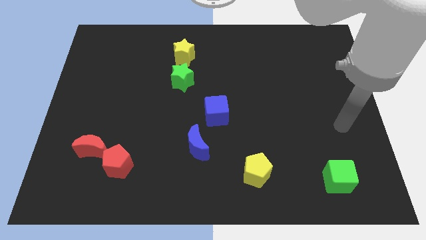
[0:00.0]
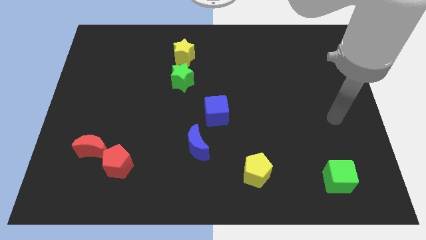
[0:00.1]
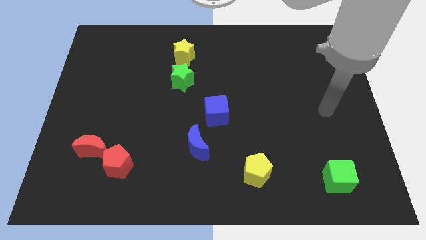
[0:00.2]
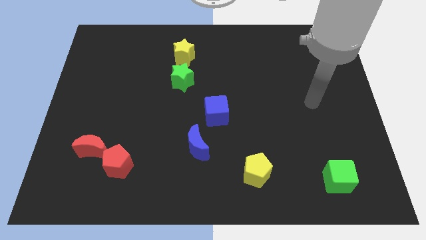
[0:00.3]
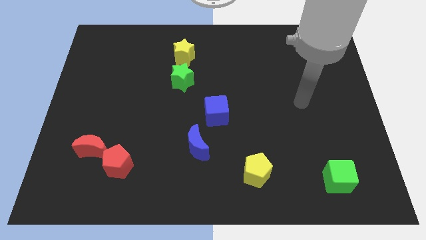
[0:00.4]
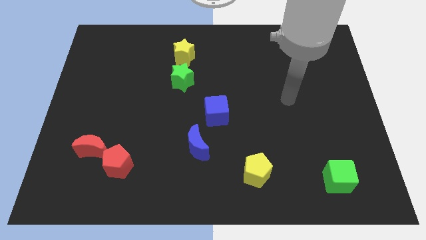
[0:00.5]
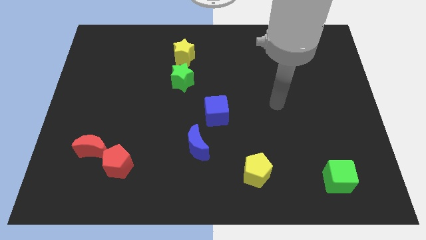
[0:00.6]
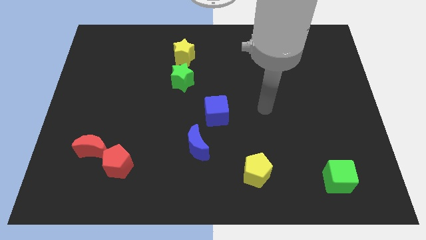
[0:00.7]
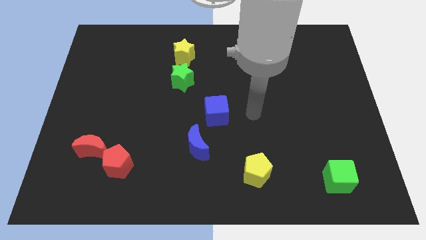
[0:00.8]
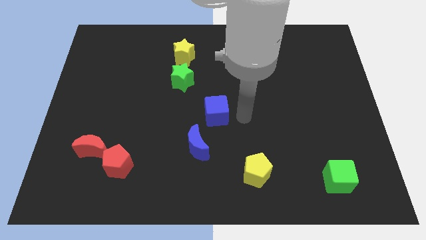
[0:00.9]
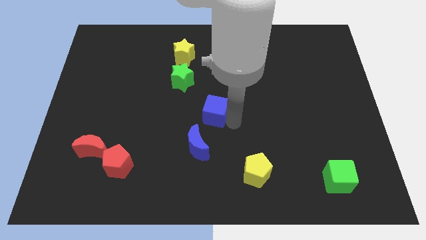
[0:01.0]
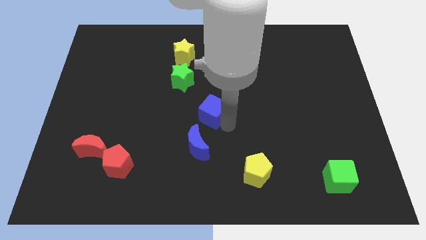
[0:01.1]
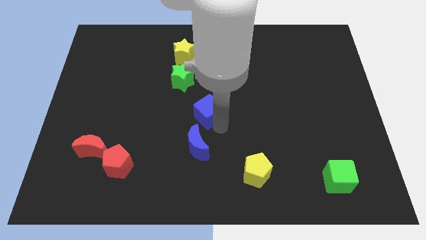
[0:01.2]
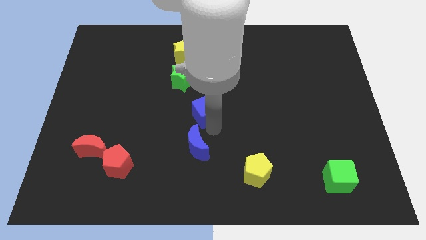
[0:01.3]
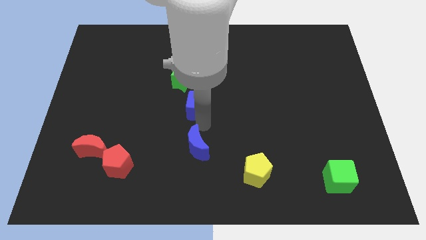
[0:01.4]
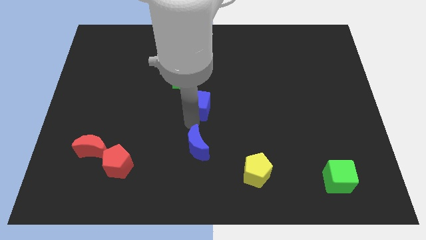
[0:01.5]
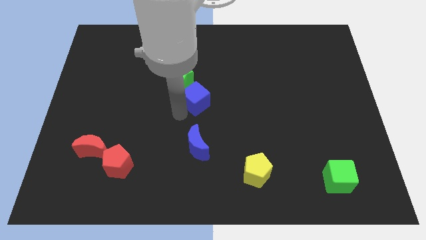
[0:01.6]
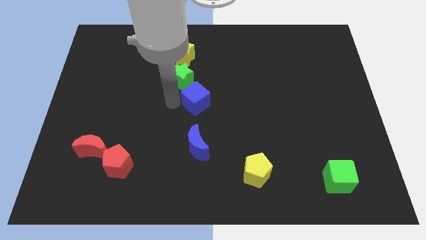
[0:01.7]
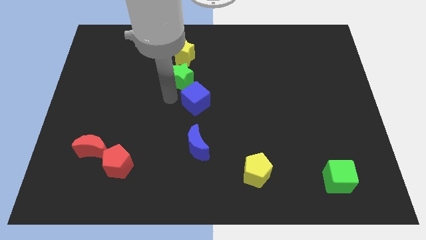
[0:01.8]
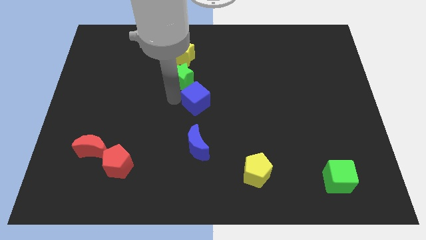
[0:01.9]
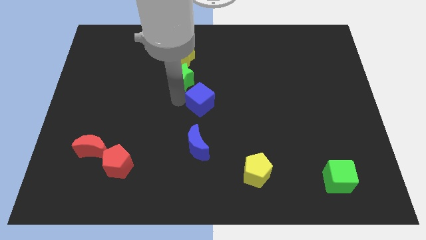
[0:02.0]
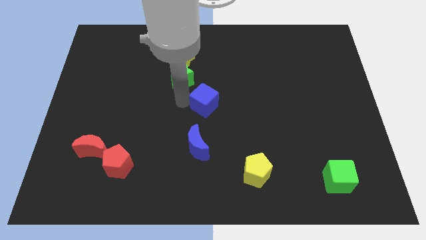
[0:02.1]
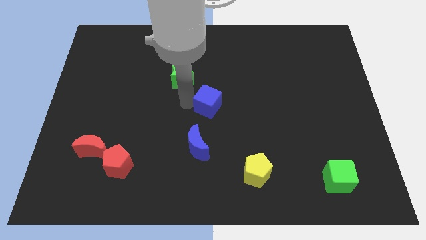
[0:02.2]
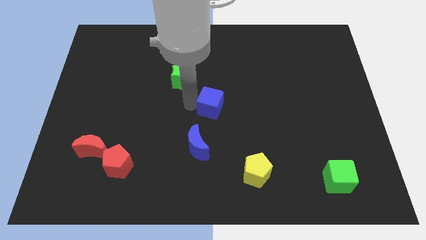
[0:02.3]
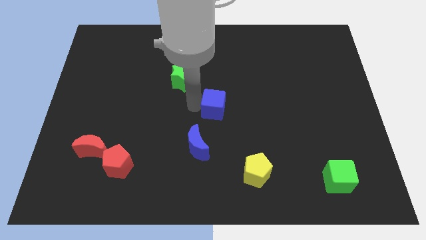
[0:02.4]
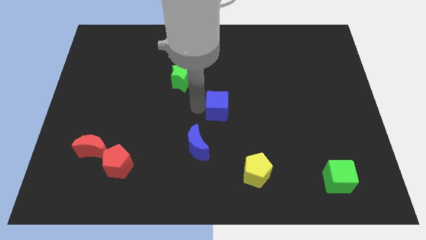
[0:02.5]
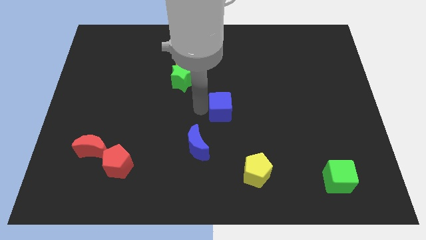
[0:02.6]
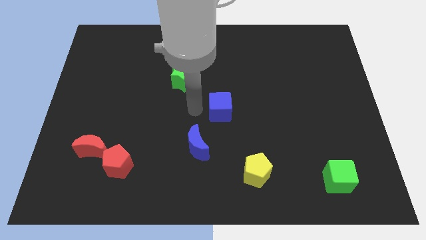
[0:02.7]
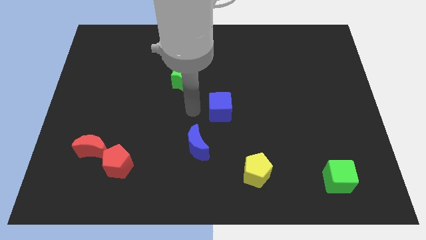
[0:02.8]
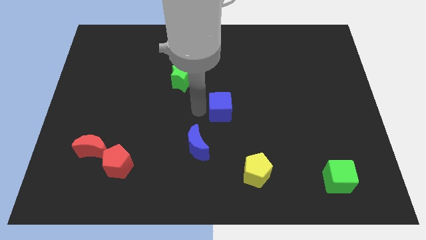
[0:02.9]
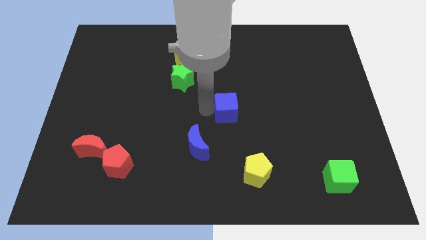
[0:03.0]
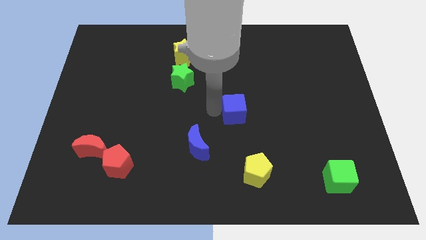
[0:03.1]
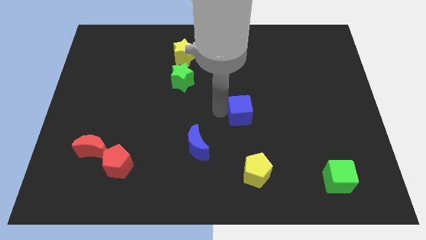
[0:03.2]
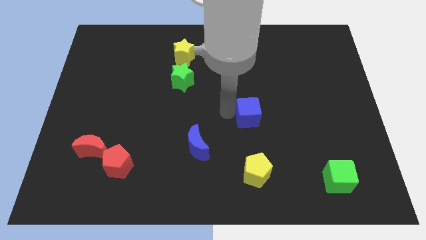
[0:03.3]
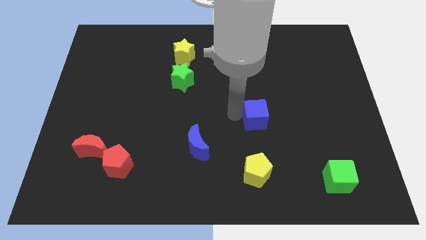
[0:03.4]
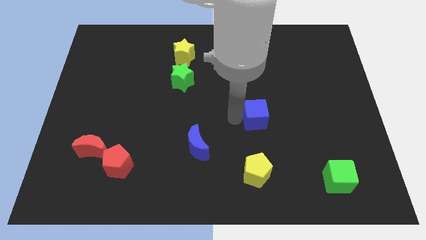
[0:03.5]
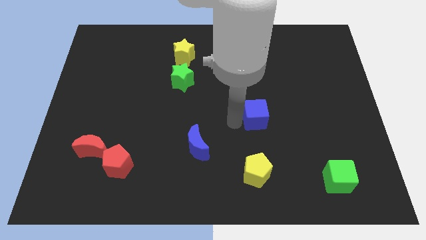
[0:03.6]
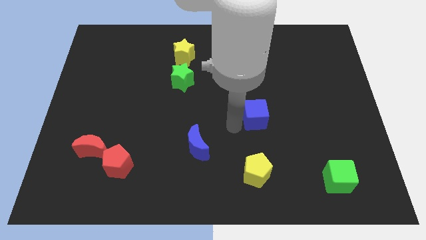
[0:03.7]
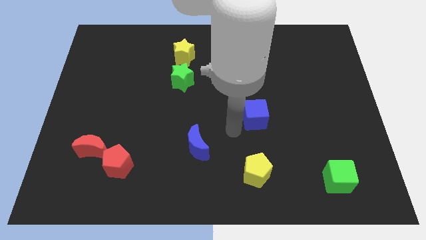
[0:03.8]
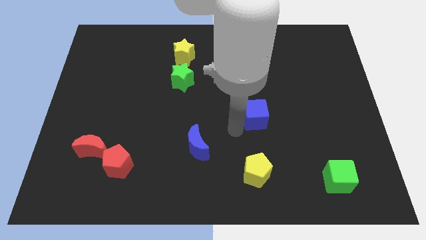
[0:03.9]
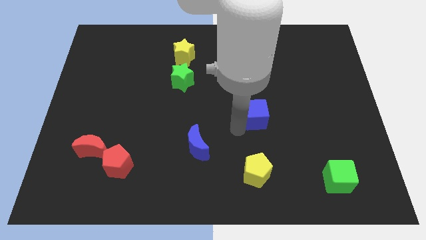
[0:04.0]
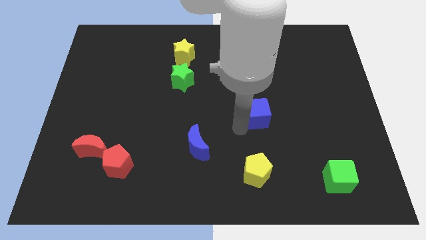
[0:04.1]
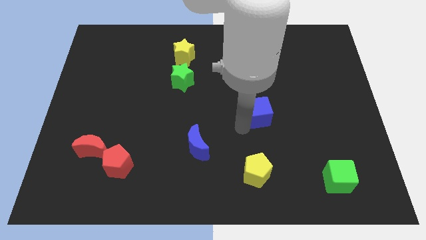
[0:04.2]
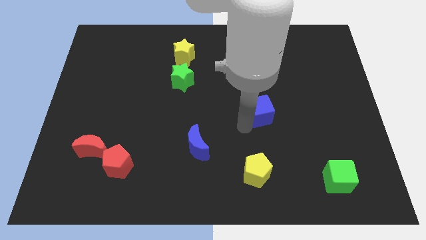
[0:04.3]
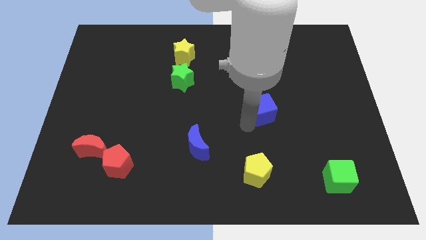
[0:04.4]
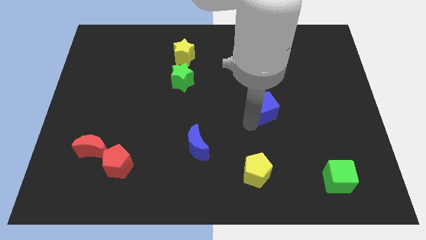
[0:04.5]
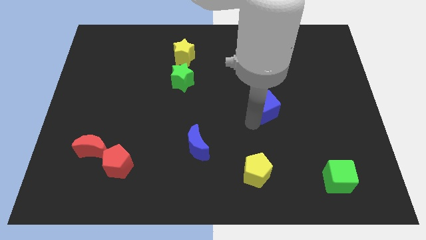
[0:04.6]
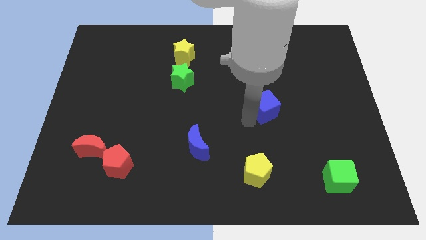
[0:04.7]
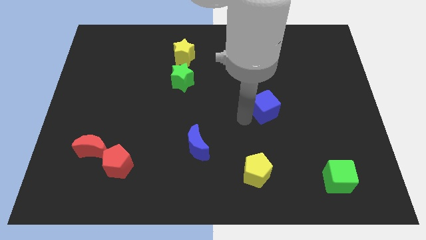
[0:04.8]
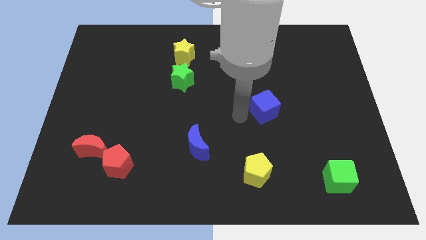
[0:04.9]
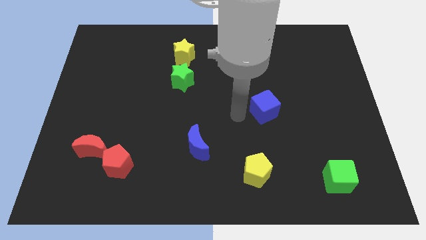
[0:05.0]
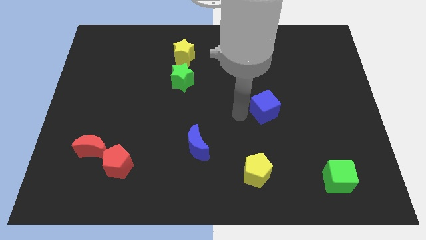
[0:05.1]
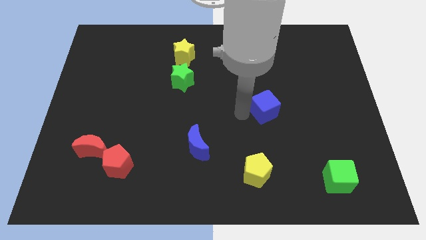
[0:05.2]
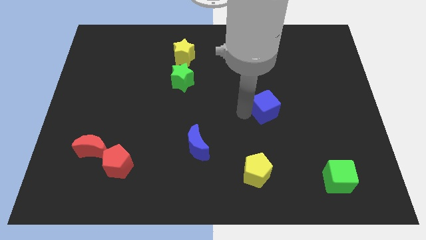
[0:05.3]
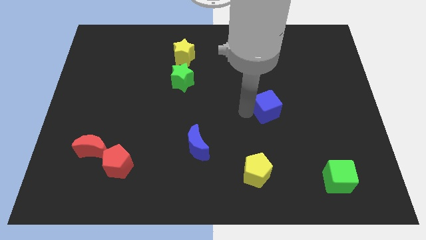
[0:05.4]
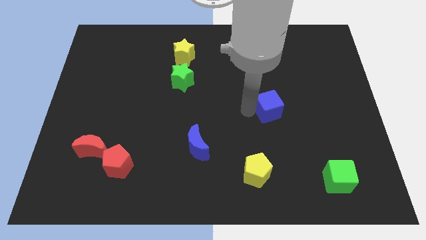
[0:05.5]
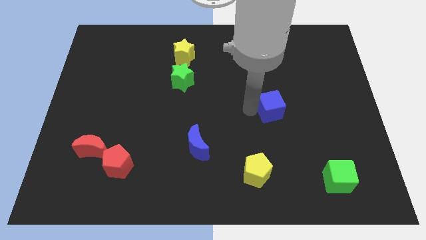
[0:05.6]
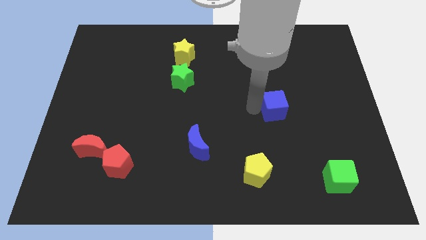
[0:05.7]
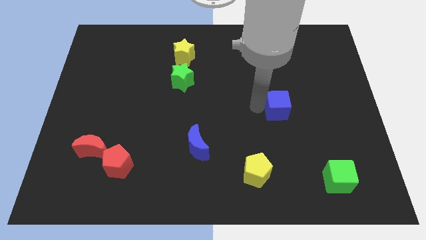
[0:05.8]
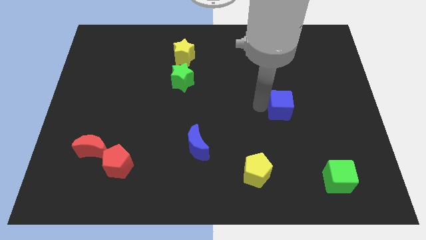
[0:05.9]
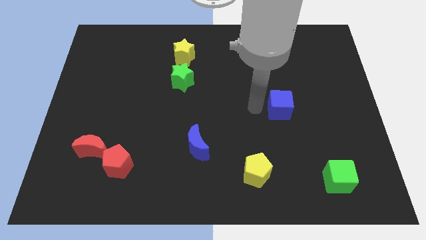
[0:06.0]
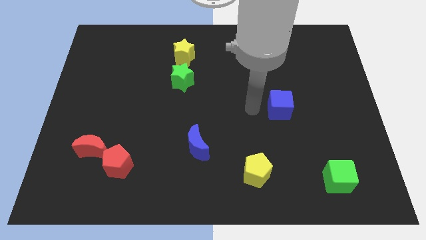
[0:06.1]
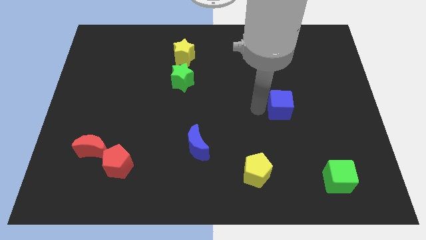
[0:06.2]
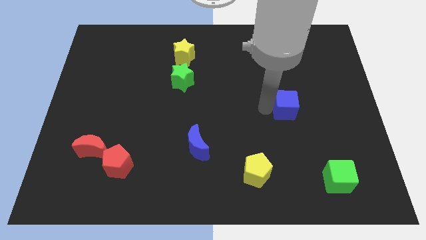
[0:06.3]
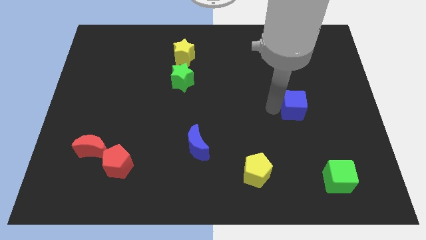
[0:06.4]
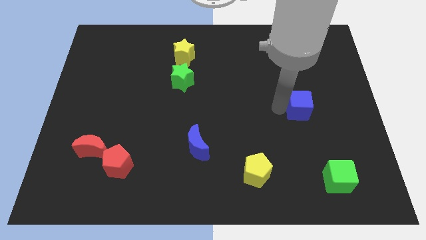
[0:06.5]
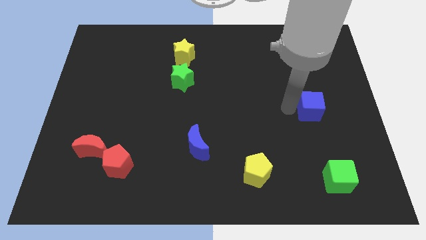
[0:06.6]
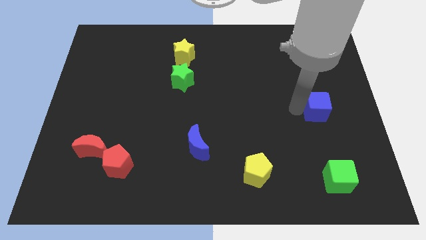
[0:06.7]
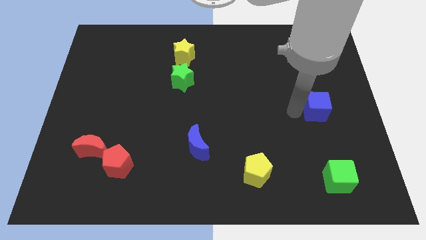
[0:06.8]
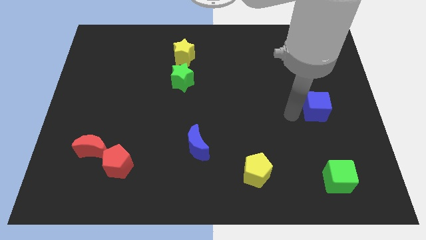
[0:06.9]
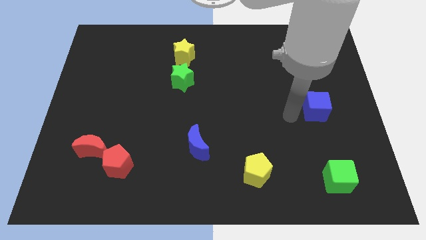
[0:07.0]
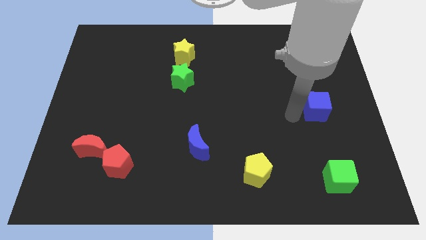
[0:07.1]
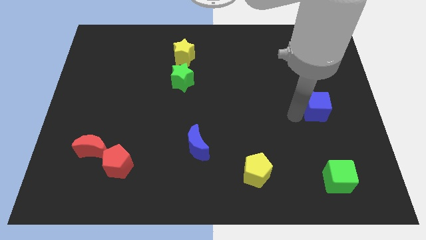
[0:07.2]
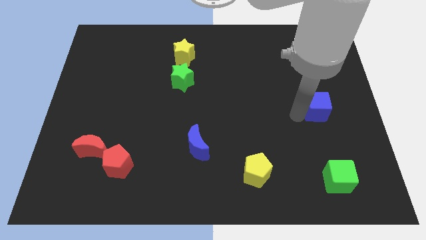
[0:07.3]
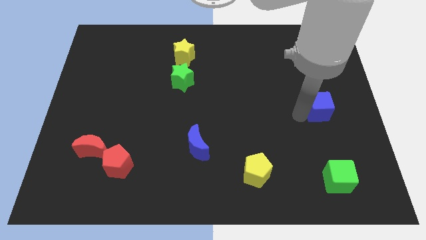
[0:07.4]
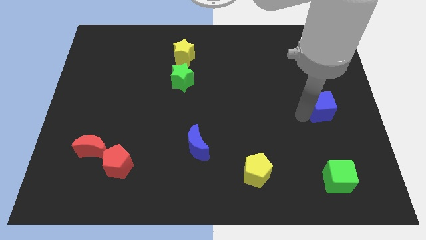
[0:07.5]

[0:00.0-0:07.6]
move the blue cube to the right side
